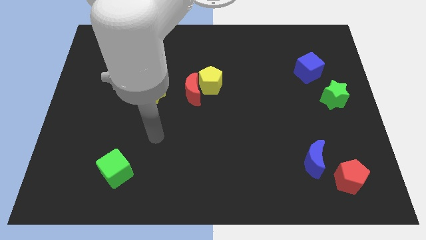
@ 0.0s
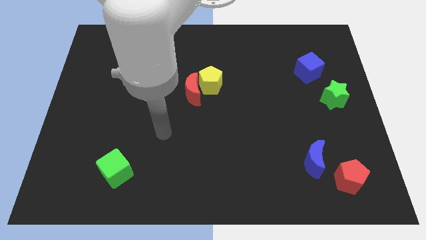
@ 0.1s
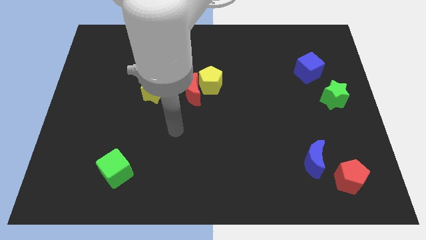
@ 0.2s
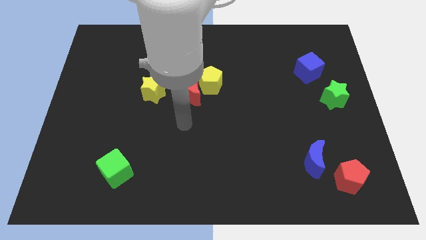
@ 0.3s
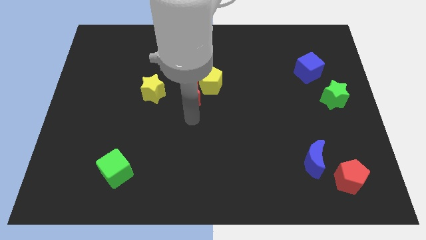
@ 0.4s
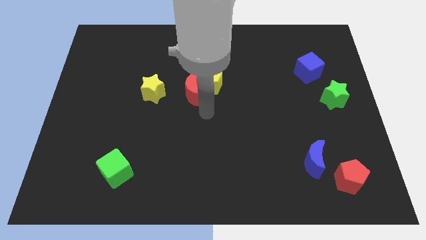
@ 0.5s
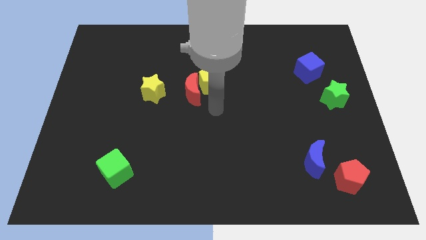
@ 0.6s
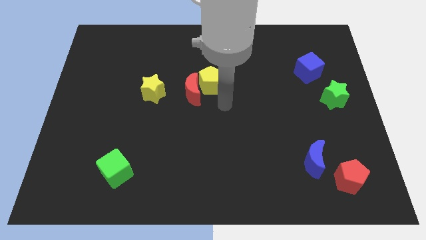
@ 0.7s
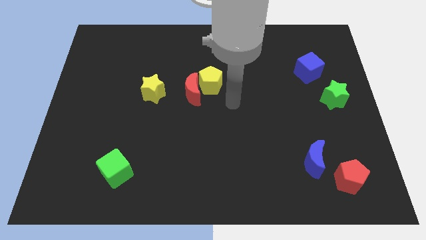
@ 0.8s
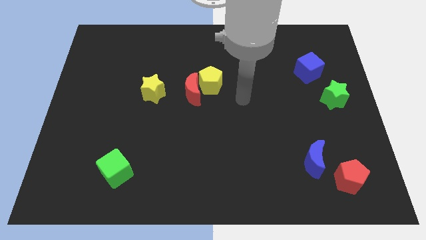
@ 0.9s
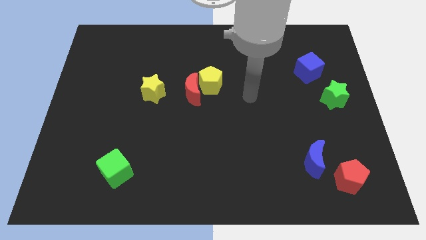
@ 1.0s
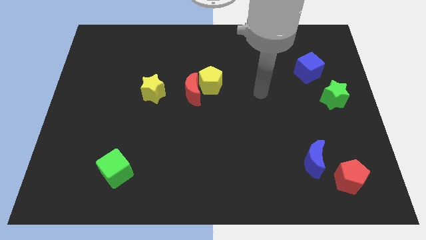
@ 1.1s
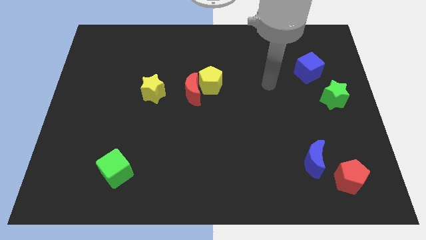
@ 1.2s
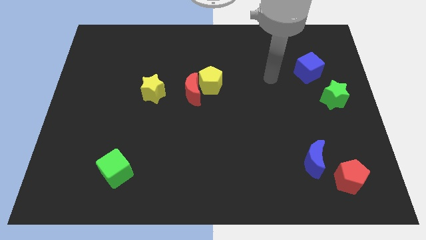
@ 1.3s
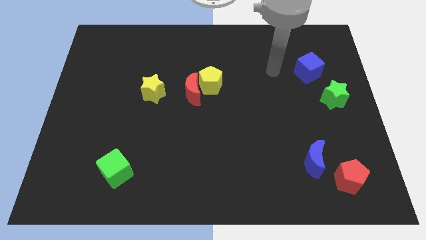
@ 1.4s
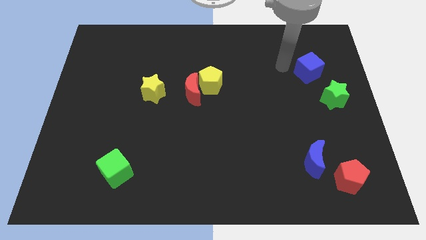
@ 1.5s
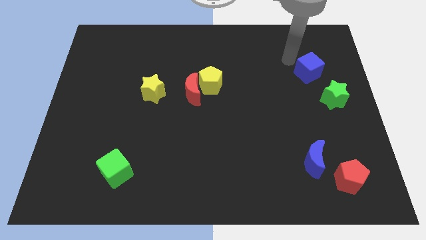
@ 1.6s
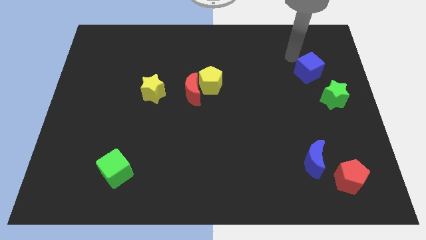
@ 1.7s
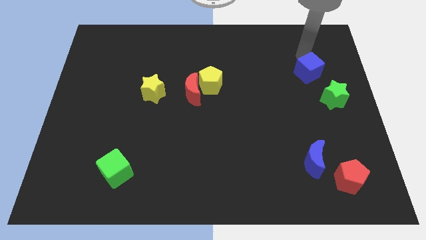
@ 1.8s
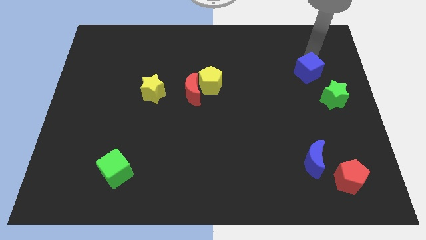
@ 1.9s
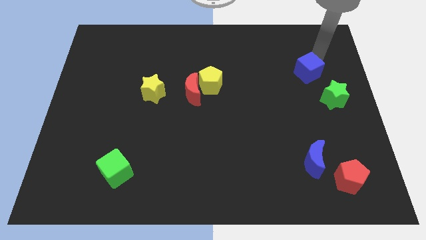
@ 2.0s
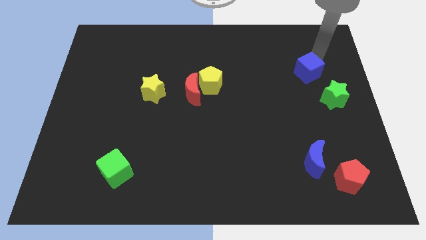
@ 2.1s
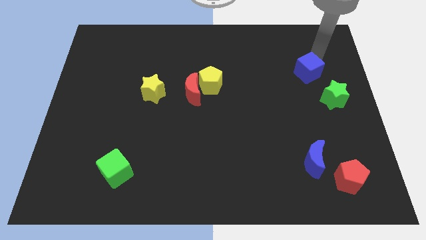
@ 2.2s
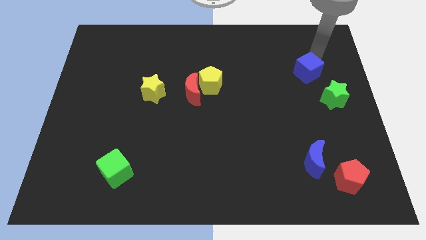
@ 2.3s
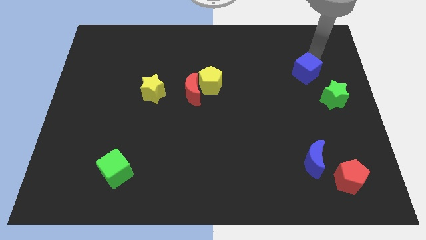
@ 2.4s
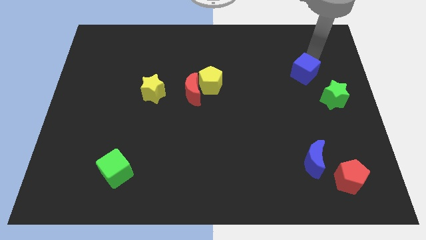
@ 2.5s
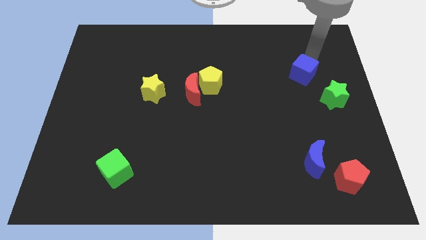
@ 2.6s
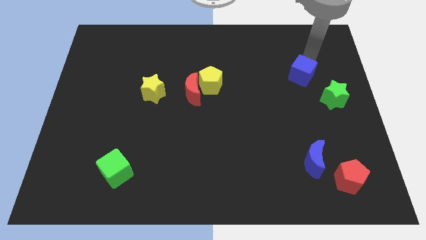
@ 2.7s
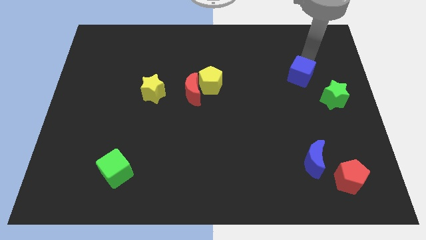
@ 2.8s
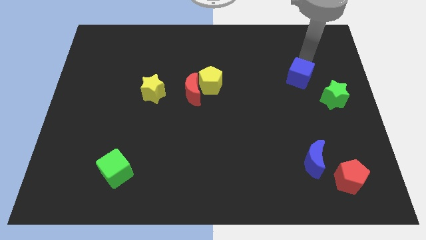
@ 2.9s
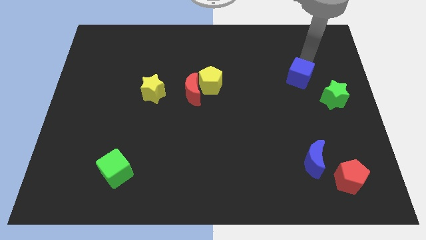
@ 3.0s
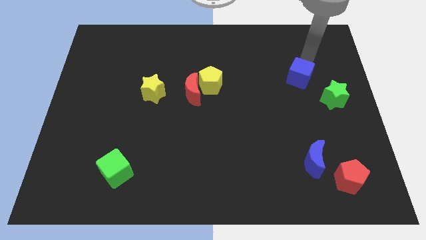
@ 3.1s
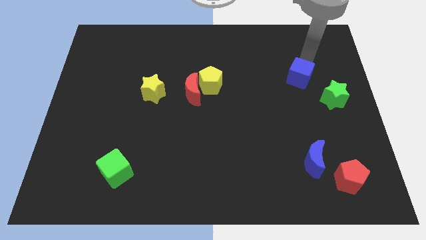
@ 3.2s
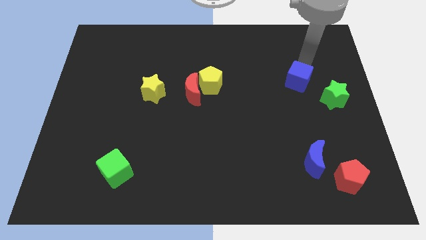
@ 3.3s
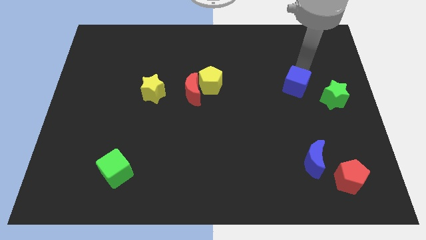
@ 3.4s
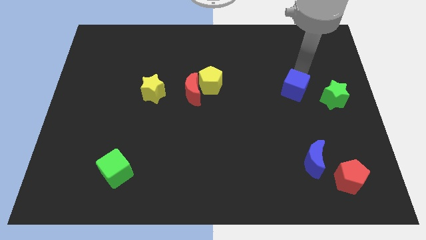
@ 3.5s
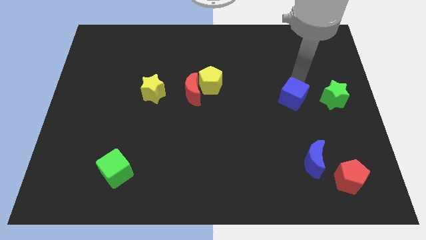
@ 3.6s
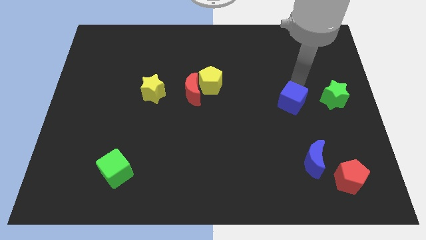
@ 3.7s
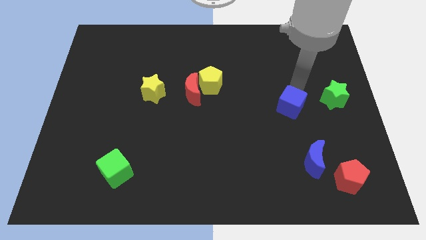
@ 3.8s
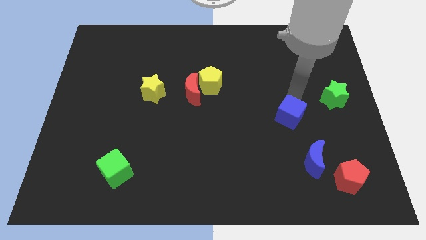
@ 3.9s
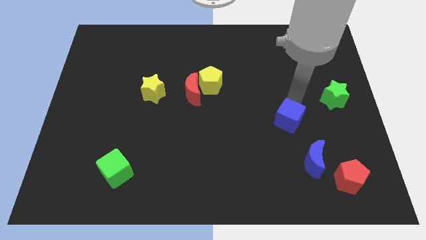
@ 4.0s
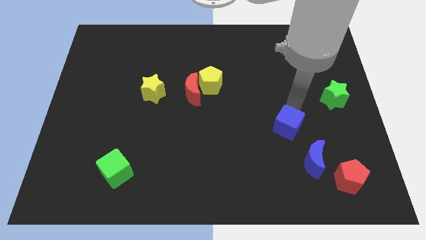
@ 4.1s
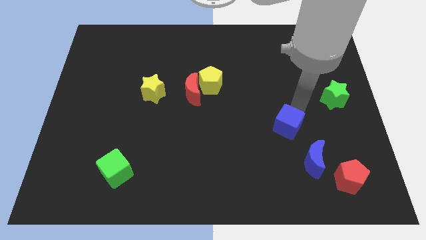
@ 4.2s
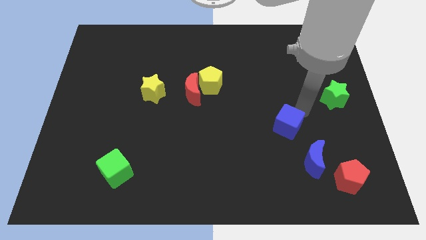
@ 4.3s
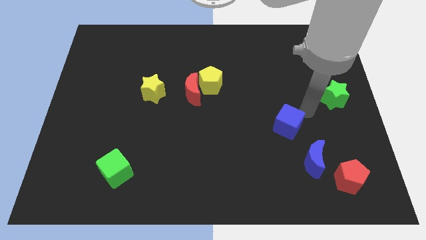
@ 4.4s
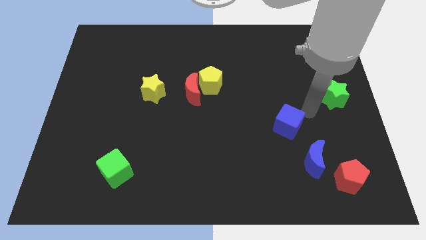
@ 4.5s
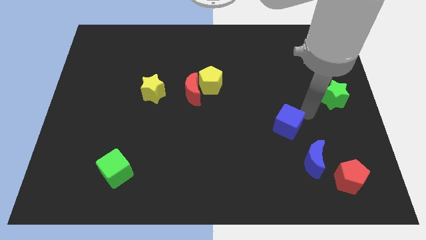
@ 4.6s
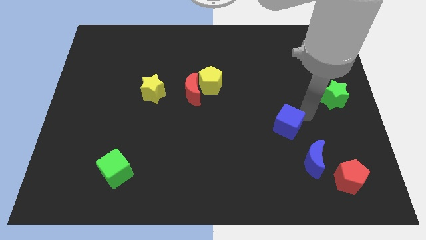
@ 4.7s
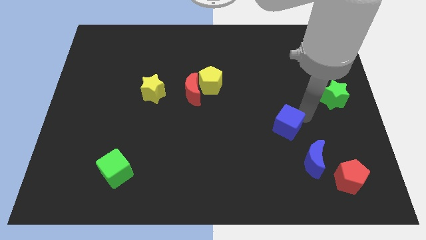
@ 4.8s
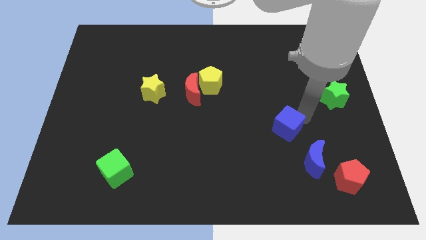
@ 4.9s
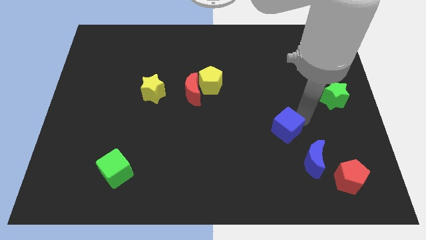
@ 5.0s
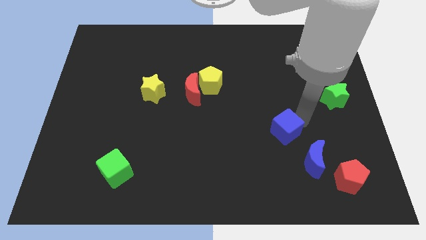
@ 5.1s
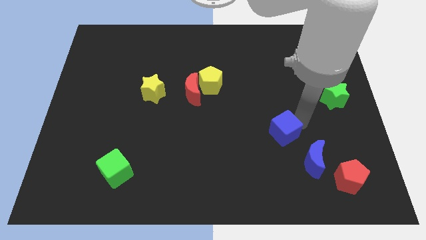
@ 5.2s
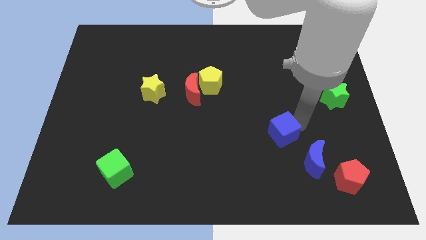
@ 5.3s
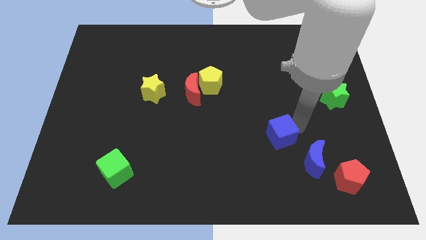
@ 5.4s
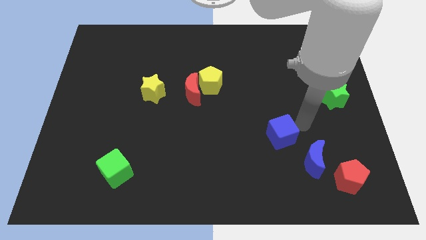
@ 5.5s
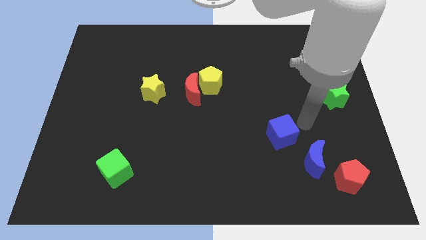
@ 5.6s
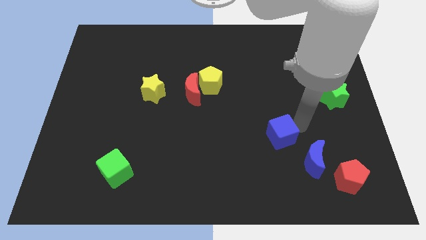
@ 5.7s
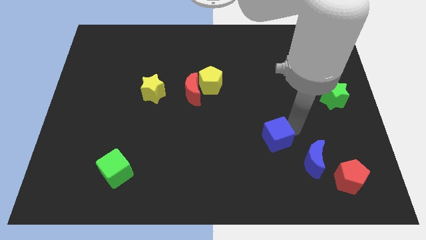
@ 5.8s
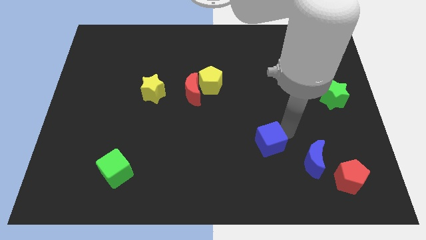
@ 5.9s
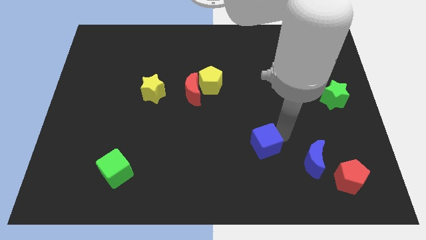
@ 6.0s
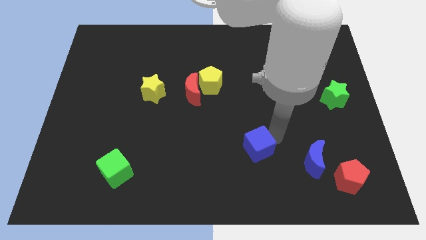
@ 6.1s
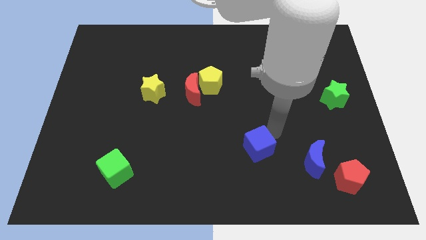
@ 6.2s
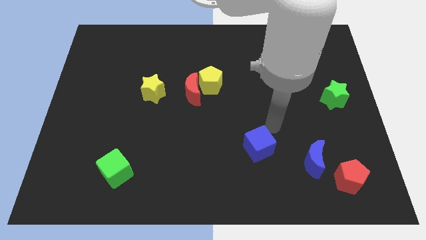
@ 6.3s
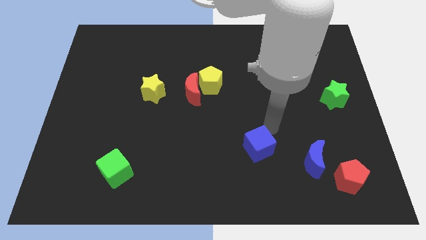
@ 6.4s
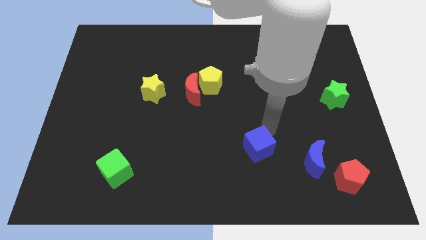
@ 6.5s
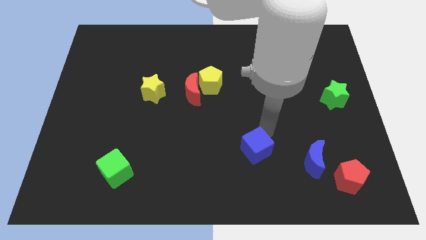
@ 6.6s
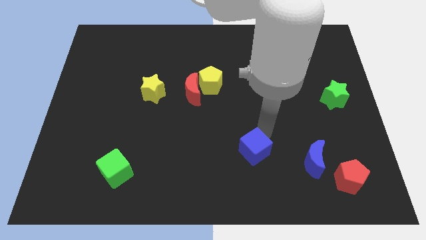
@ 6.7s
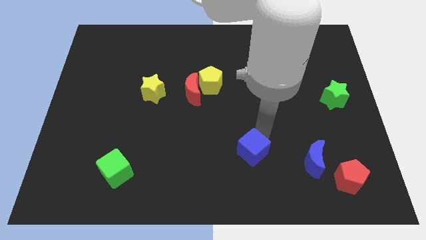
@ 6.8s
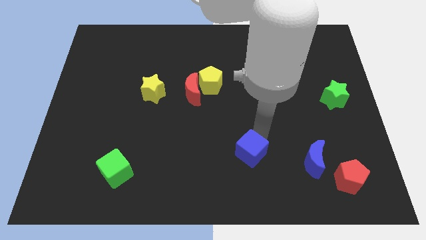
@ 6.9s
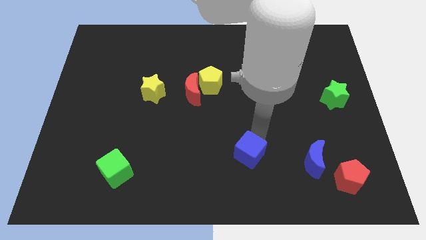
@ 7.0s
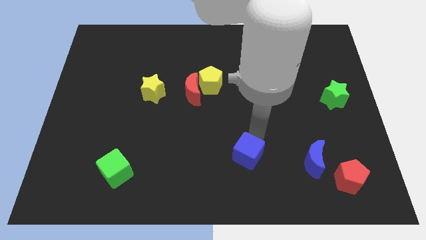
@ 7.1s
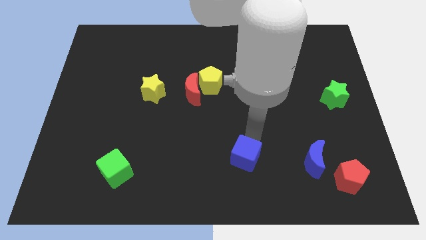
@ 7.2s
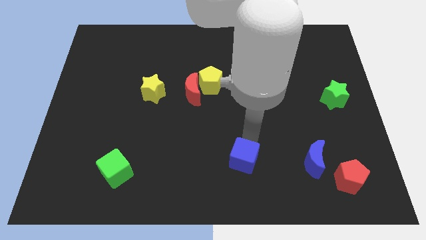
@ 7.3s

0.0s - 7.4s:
put the blue cube to the bottom

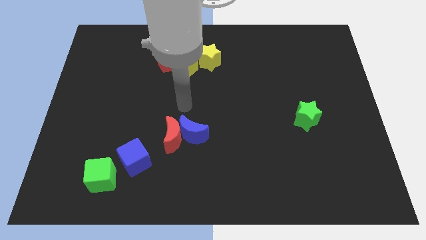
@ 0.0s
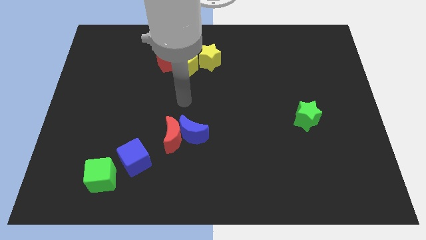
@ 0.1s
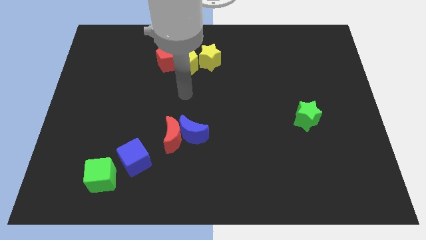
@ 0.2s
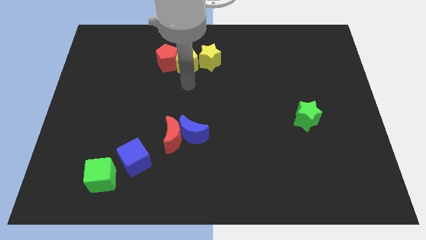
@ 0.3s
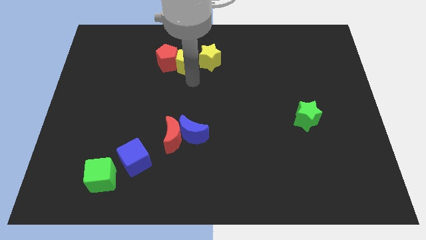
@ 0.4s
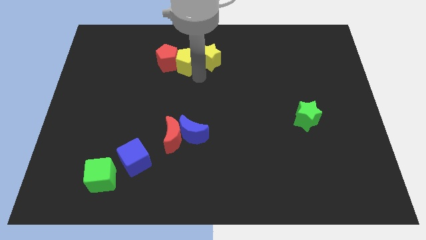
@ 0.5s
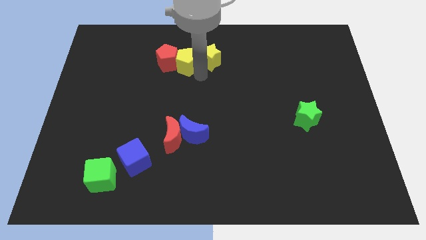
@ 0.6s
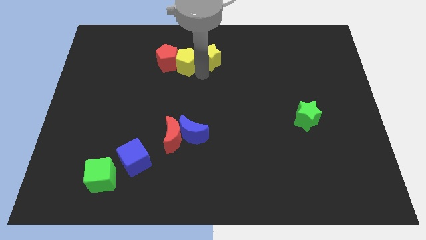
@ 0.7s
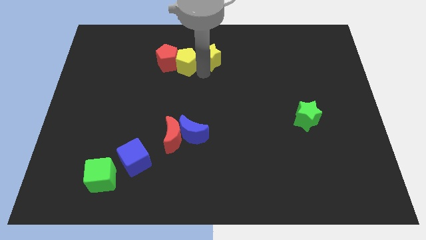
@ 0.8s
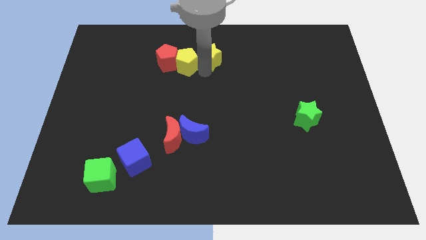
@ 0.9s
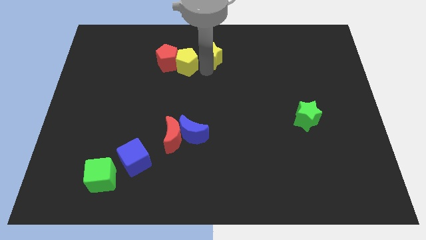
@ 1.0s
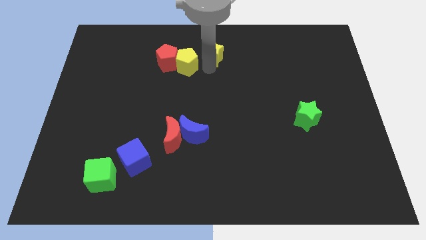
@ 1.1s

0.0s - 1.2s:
push the yellow star to the top
